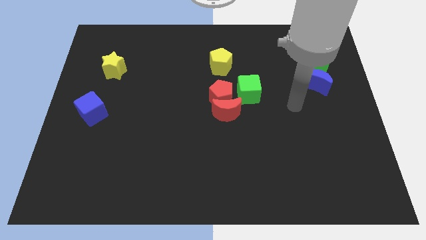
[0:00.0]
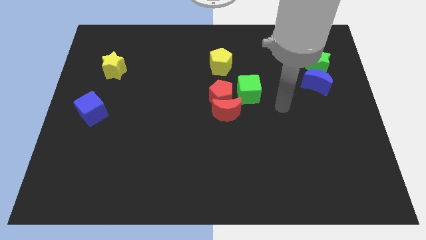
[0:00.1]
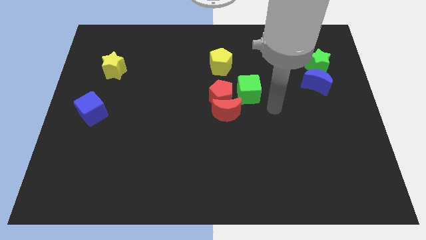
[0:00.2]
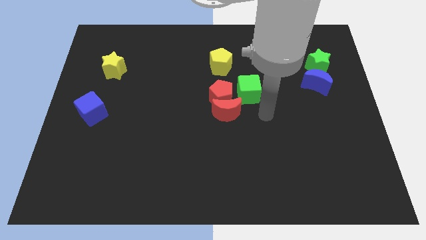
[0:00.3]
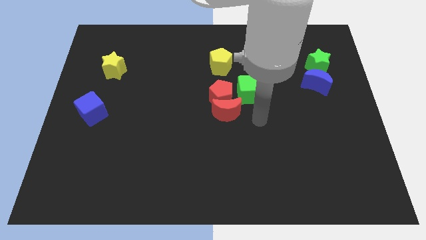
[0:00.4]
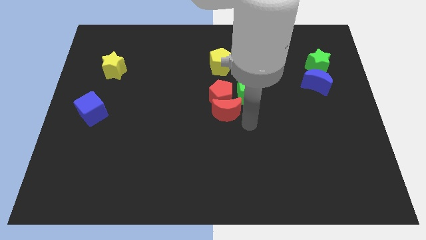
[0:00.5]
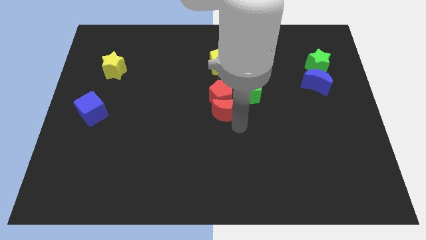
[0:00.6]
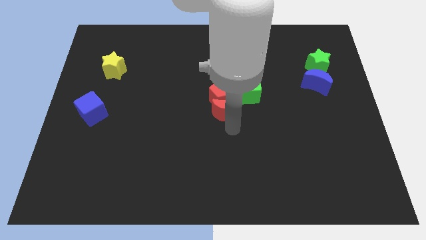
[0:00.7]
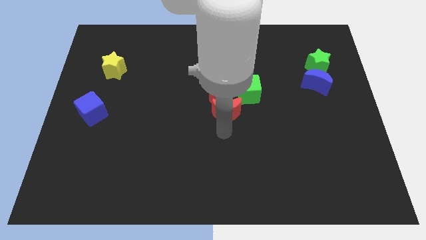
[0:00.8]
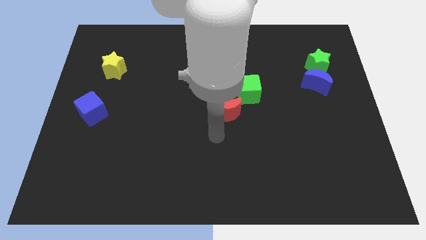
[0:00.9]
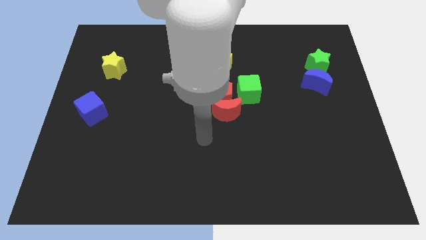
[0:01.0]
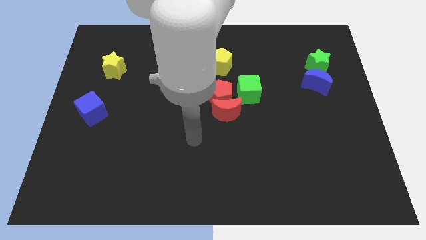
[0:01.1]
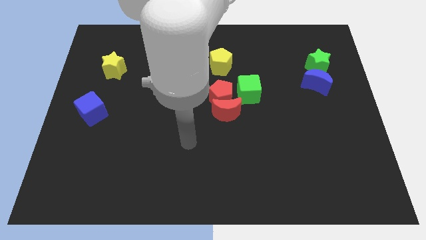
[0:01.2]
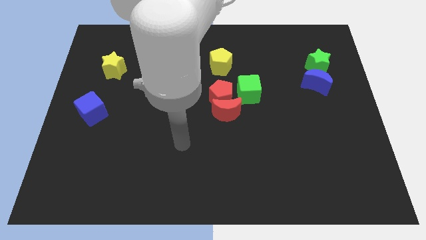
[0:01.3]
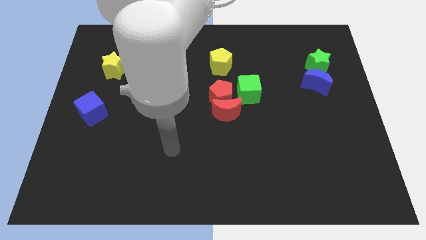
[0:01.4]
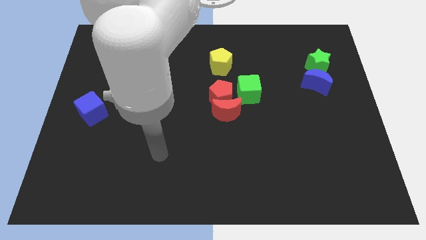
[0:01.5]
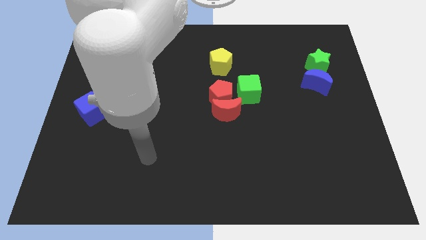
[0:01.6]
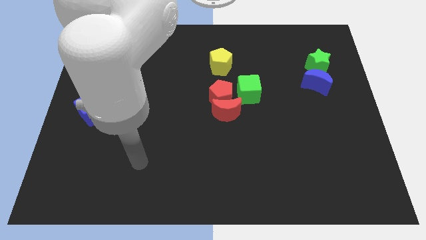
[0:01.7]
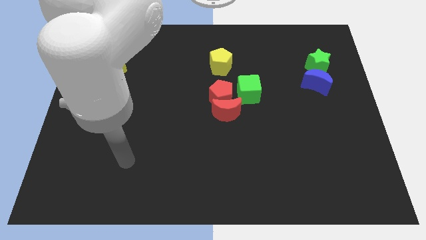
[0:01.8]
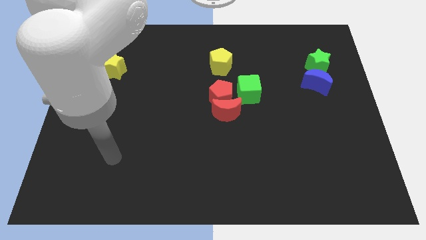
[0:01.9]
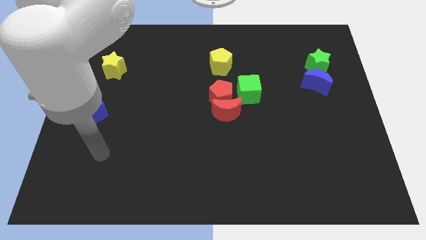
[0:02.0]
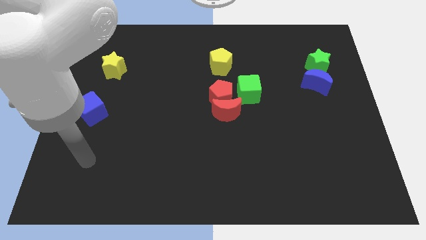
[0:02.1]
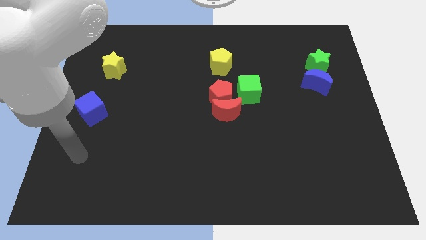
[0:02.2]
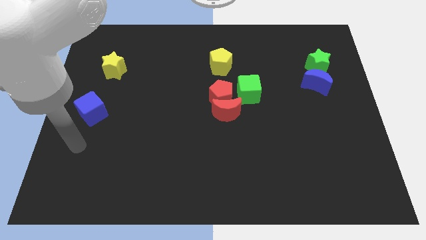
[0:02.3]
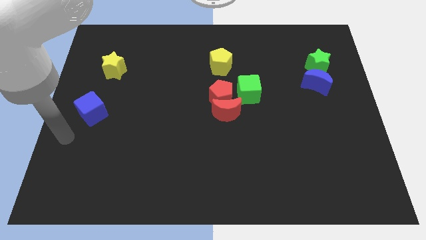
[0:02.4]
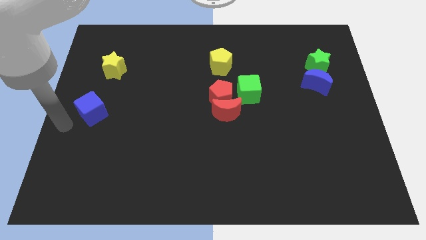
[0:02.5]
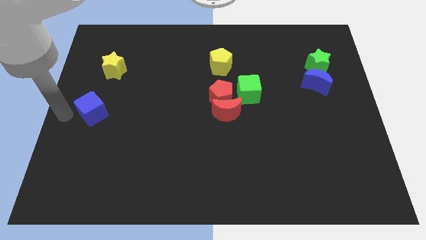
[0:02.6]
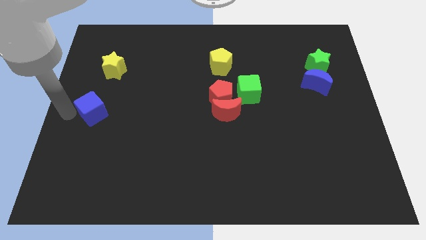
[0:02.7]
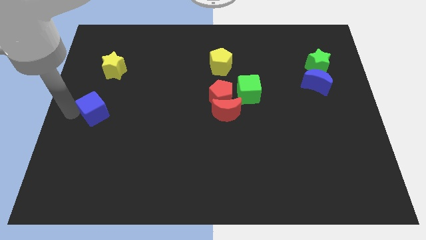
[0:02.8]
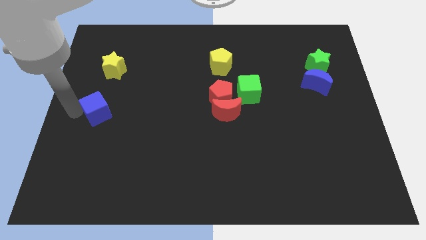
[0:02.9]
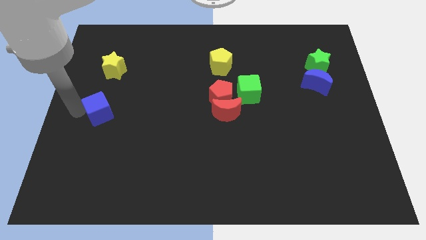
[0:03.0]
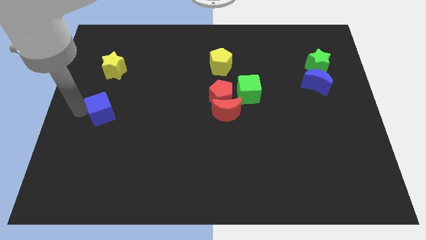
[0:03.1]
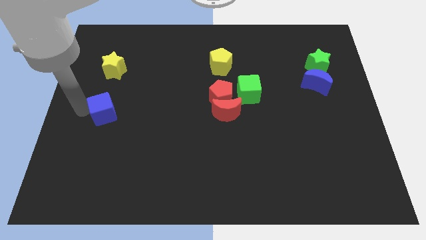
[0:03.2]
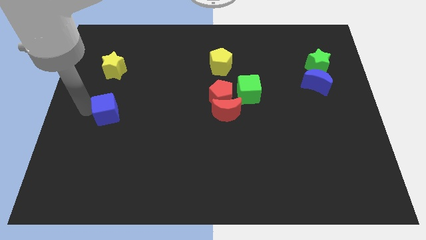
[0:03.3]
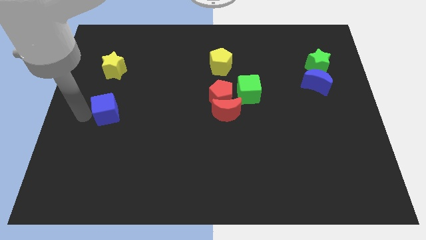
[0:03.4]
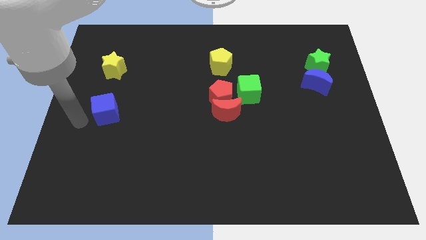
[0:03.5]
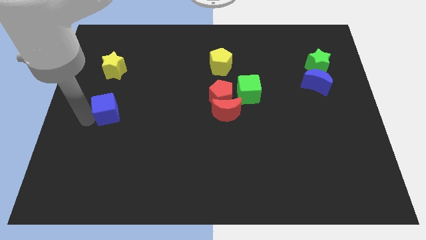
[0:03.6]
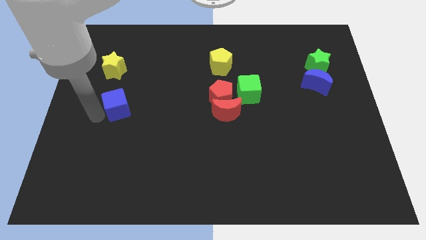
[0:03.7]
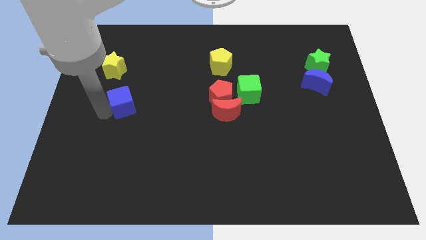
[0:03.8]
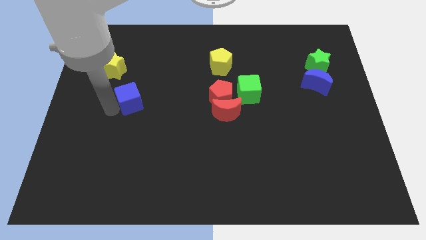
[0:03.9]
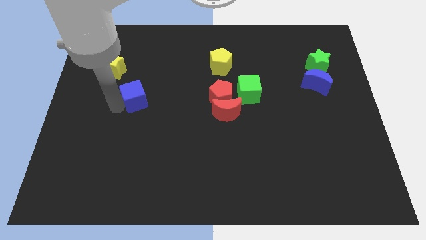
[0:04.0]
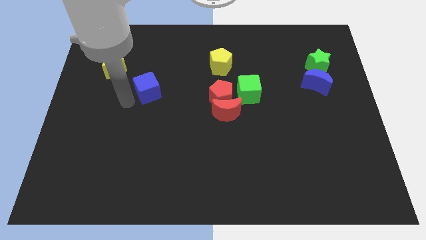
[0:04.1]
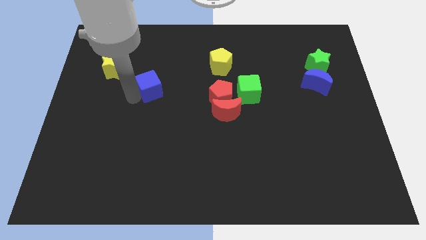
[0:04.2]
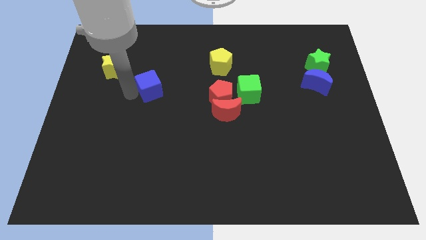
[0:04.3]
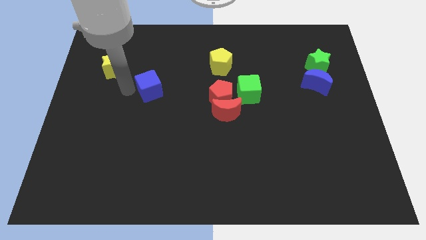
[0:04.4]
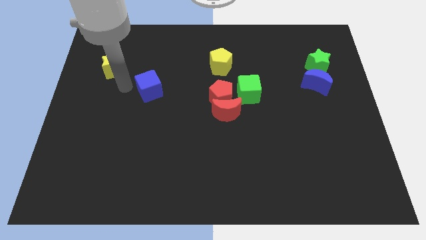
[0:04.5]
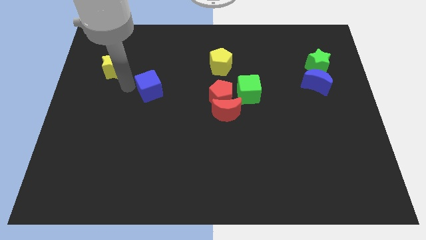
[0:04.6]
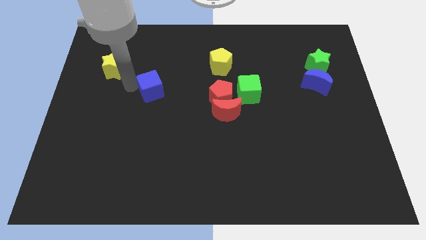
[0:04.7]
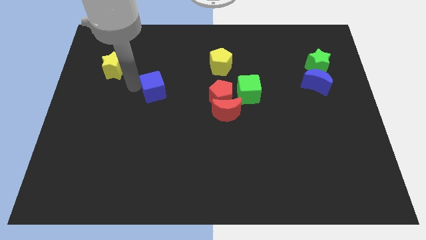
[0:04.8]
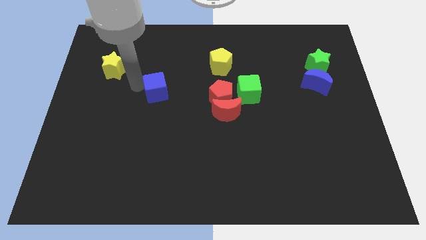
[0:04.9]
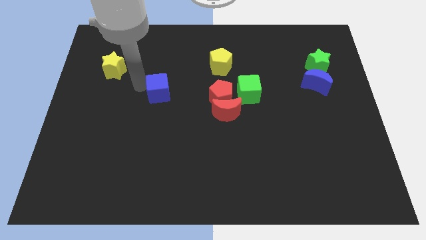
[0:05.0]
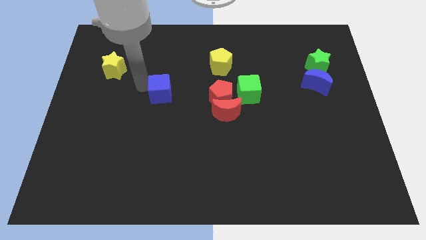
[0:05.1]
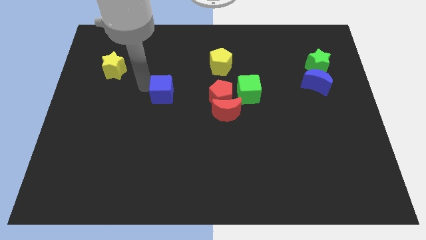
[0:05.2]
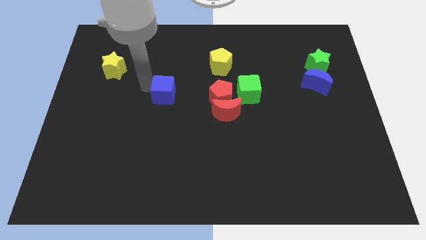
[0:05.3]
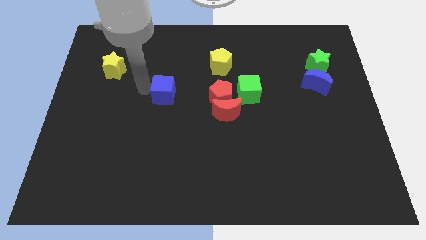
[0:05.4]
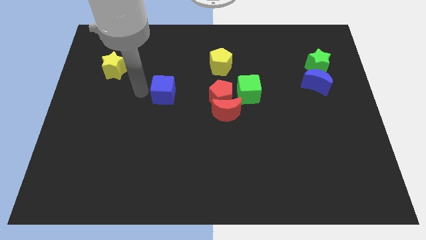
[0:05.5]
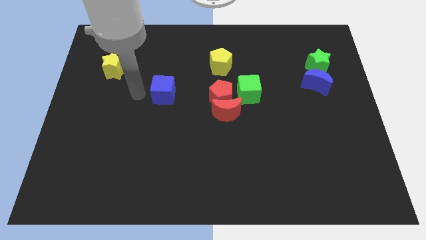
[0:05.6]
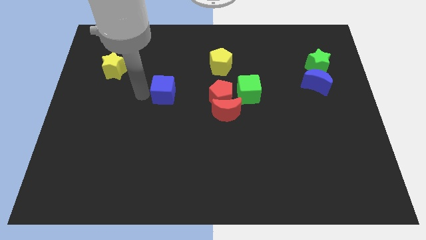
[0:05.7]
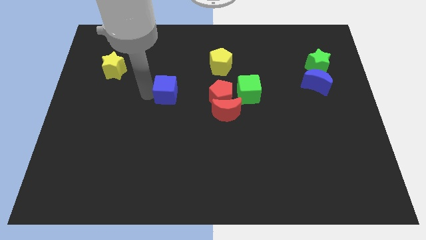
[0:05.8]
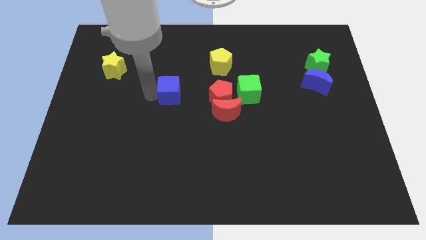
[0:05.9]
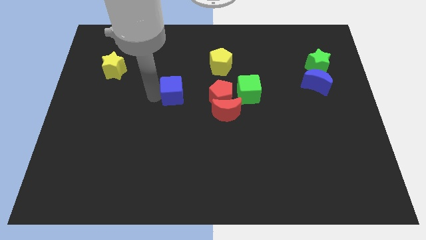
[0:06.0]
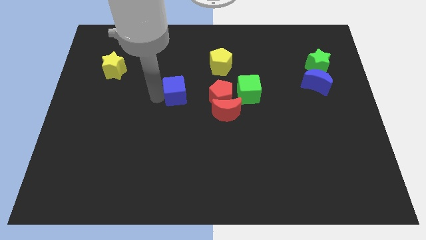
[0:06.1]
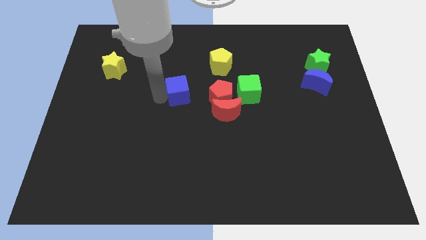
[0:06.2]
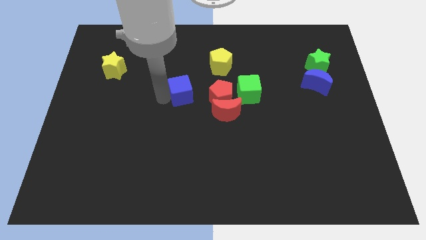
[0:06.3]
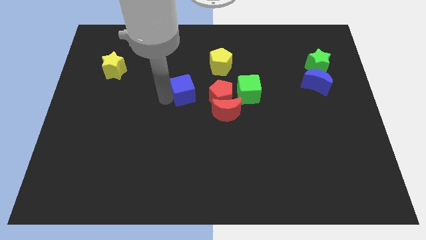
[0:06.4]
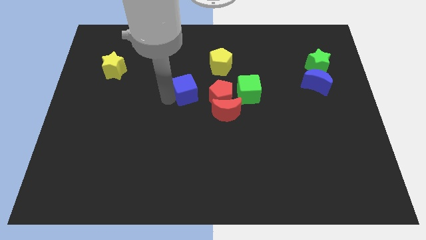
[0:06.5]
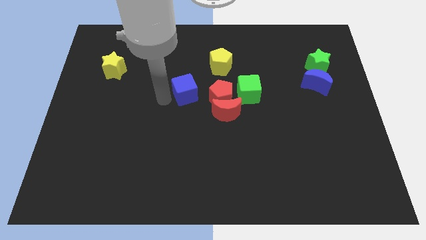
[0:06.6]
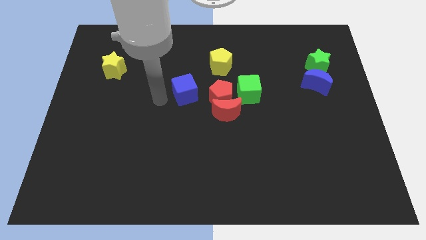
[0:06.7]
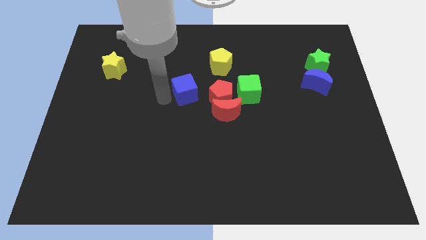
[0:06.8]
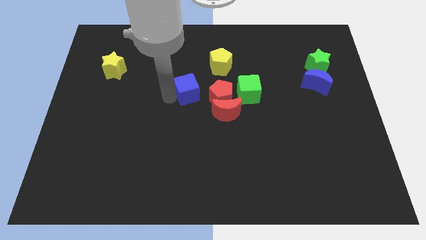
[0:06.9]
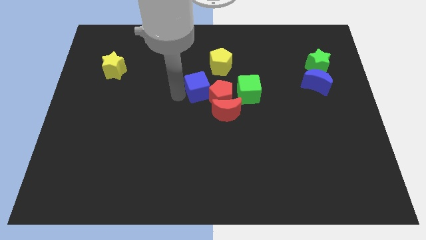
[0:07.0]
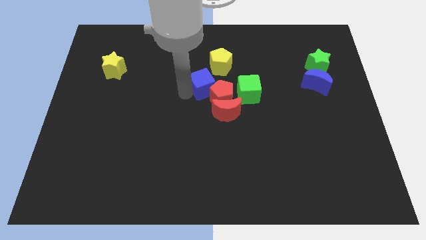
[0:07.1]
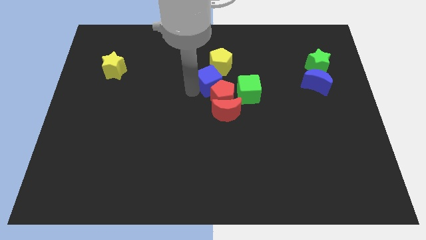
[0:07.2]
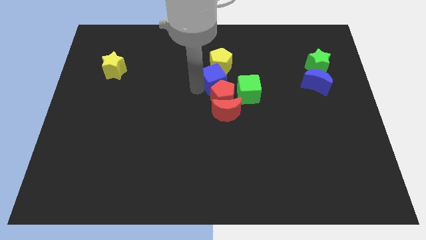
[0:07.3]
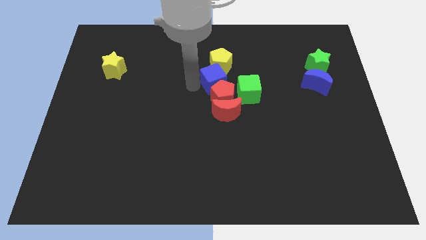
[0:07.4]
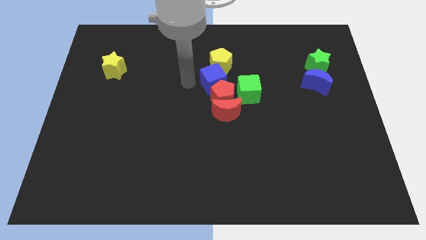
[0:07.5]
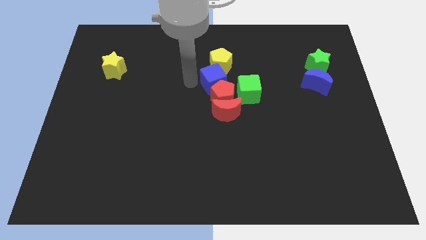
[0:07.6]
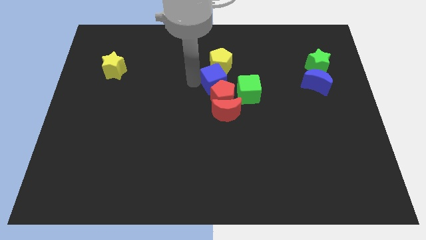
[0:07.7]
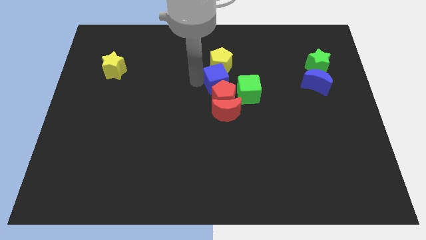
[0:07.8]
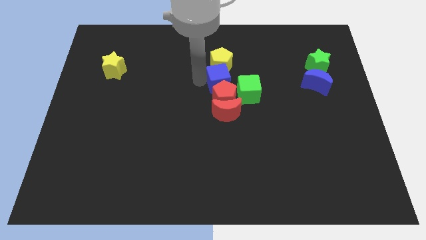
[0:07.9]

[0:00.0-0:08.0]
slide the blue cube to the top right side of the red pentagon
